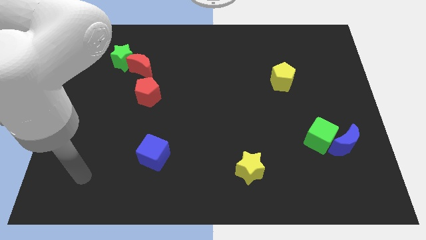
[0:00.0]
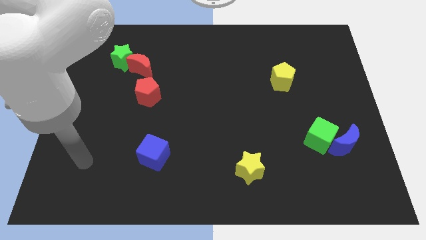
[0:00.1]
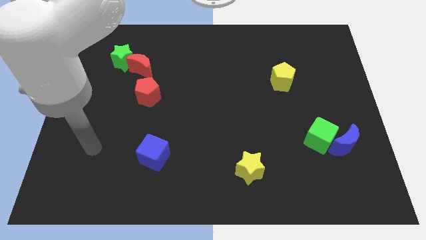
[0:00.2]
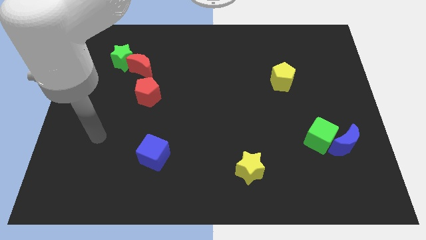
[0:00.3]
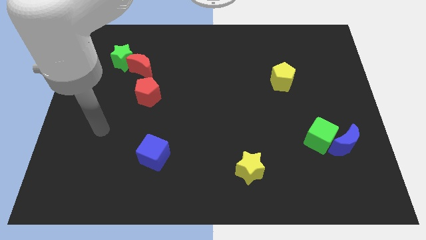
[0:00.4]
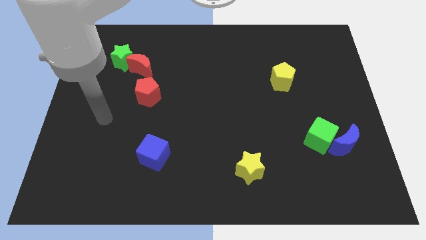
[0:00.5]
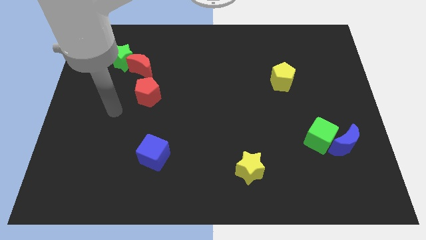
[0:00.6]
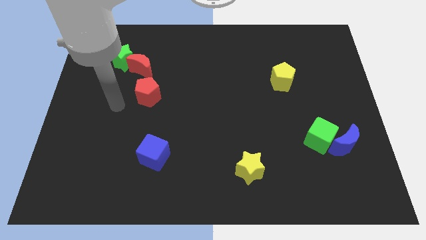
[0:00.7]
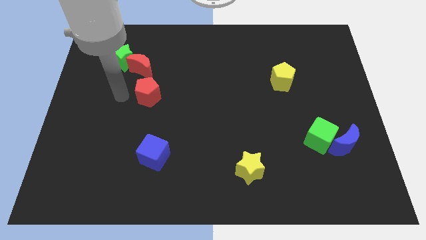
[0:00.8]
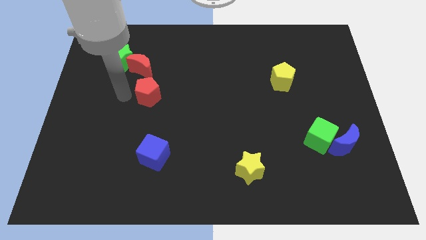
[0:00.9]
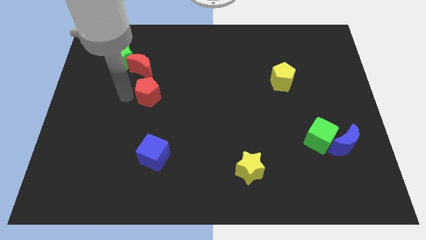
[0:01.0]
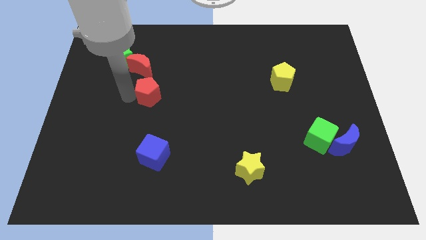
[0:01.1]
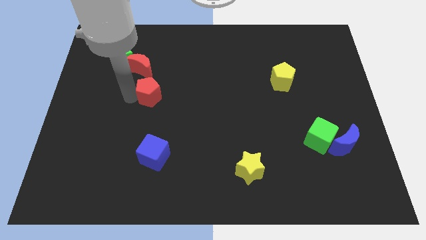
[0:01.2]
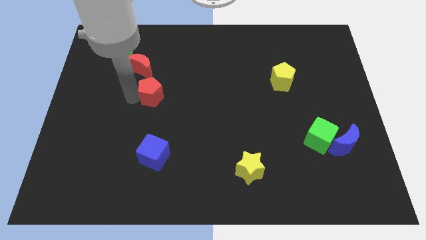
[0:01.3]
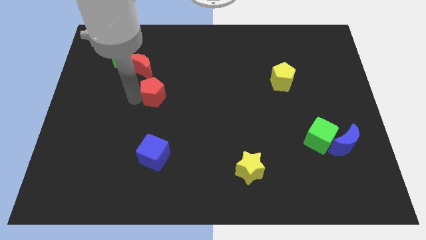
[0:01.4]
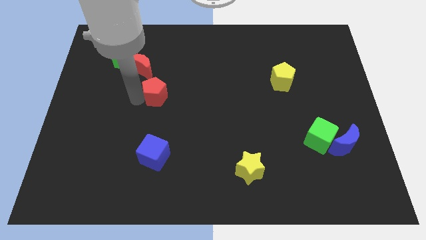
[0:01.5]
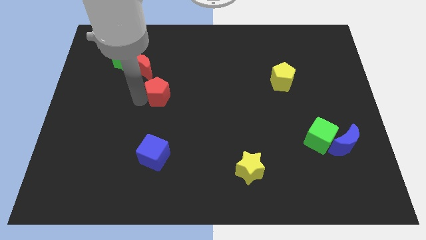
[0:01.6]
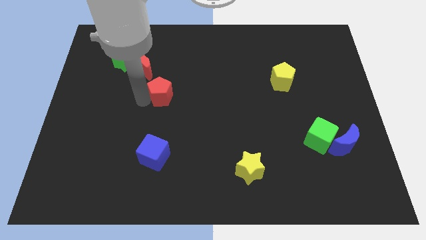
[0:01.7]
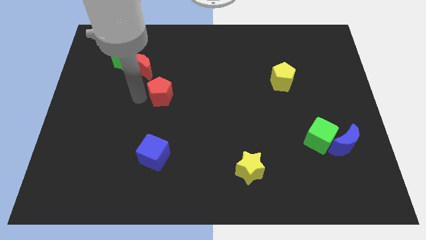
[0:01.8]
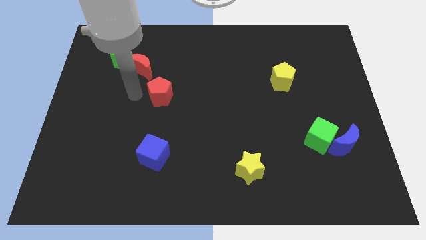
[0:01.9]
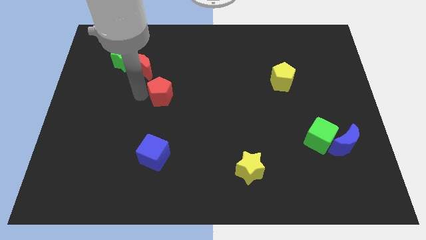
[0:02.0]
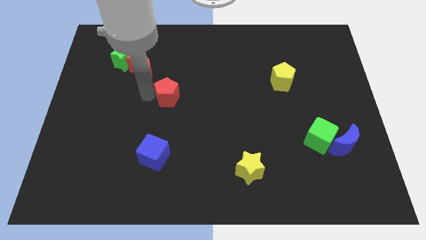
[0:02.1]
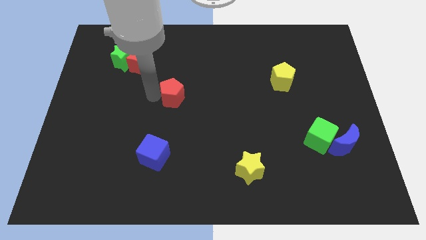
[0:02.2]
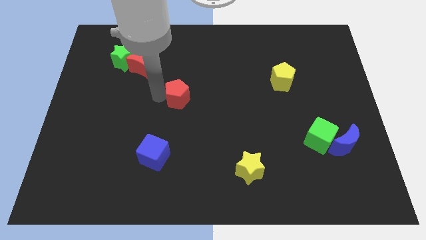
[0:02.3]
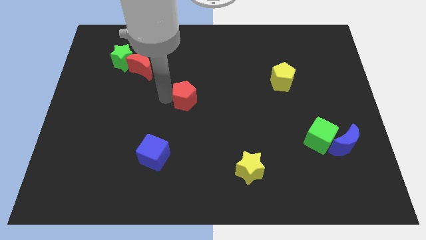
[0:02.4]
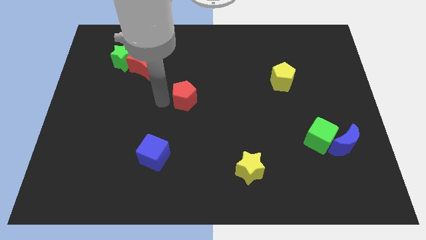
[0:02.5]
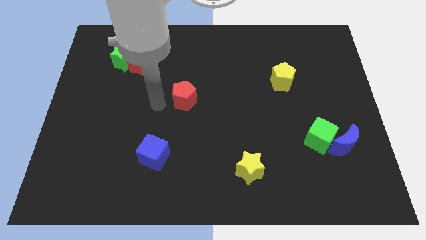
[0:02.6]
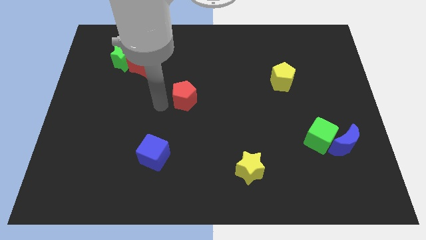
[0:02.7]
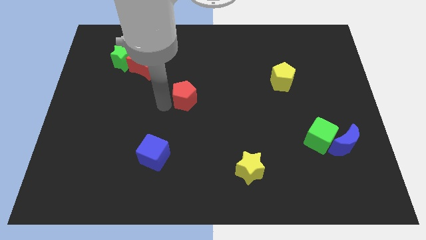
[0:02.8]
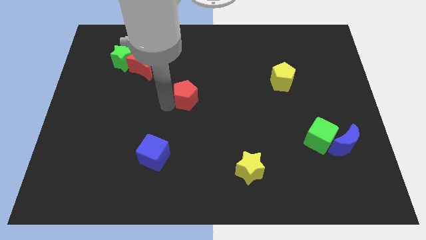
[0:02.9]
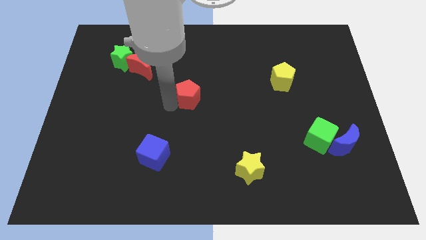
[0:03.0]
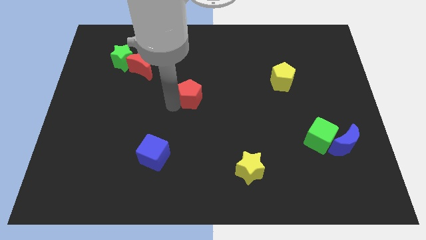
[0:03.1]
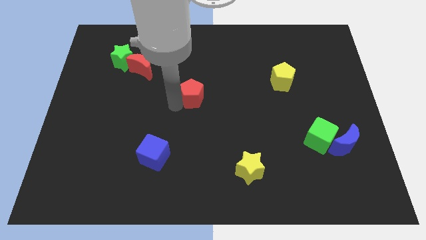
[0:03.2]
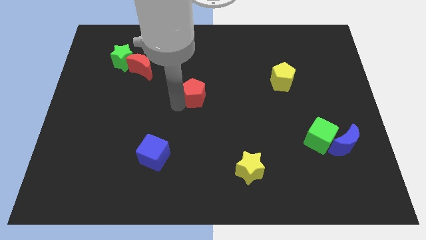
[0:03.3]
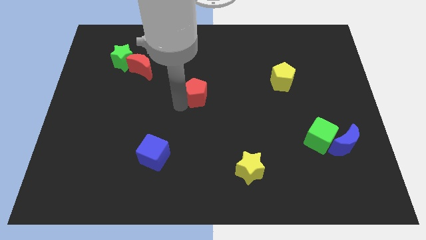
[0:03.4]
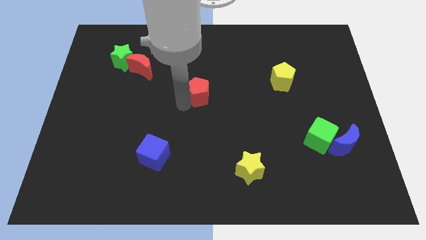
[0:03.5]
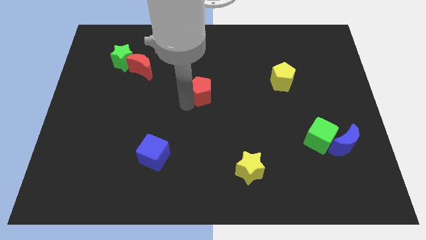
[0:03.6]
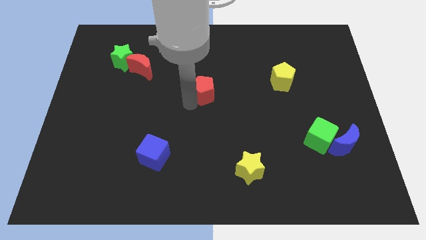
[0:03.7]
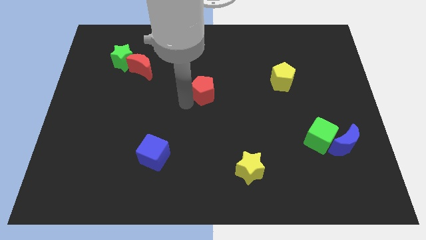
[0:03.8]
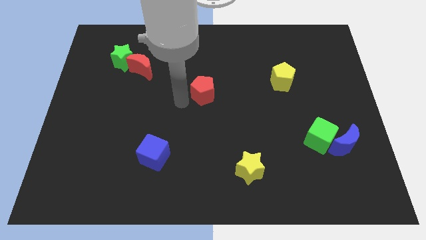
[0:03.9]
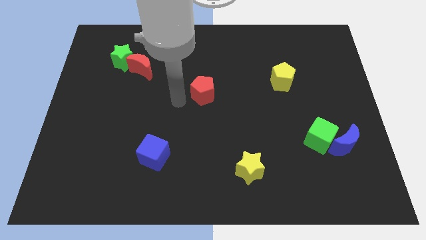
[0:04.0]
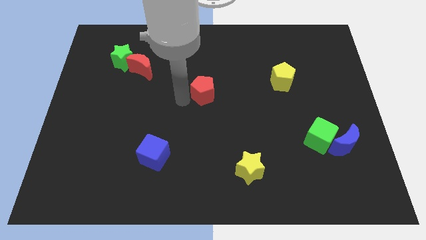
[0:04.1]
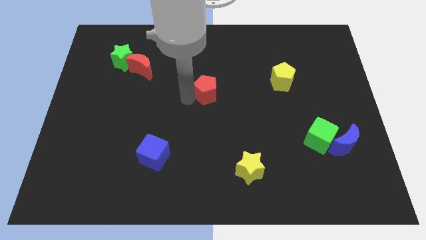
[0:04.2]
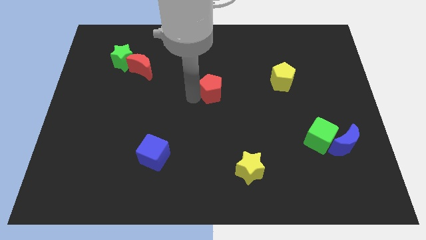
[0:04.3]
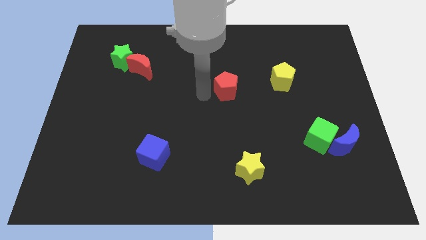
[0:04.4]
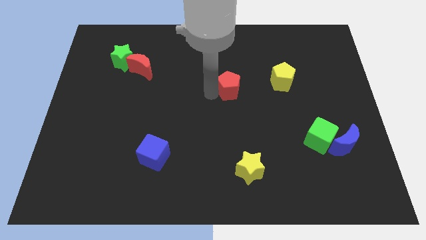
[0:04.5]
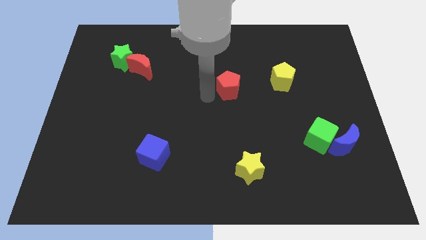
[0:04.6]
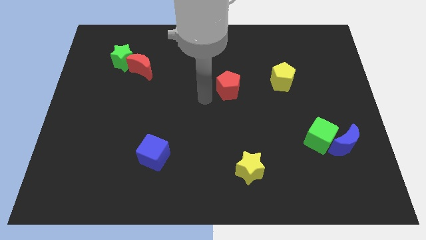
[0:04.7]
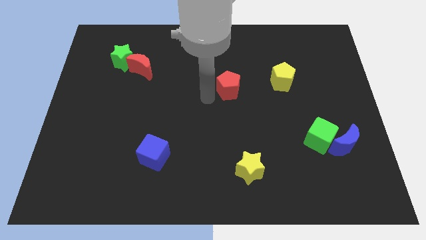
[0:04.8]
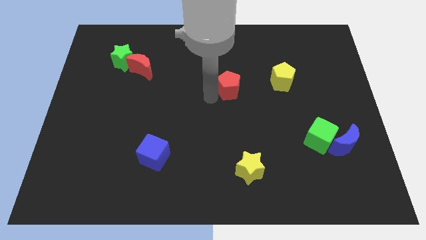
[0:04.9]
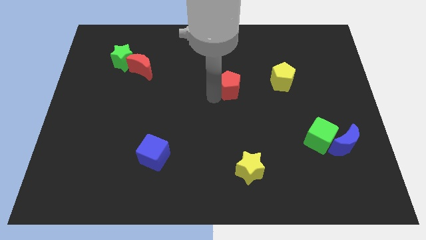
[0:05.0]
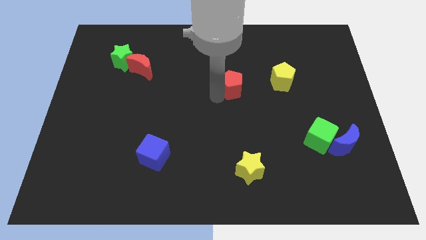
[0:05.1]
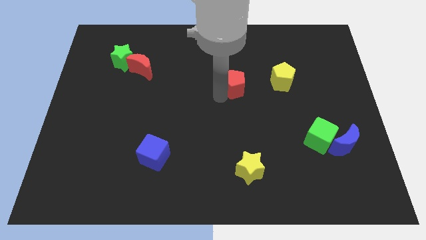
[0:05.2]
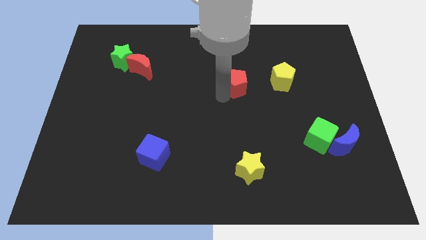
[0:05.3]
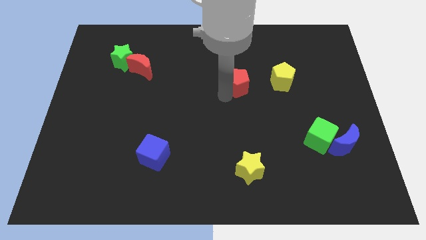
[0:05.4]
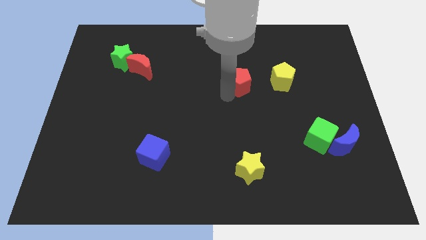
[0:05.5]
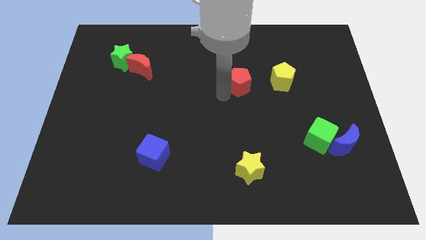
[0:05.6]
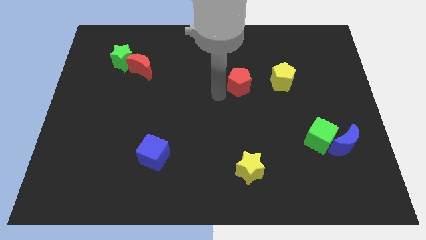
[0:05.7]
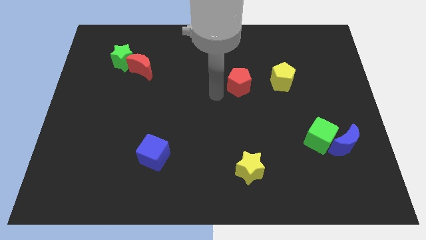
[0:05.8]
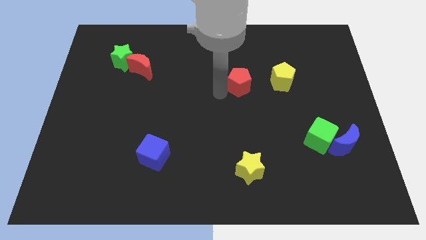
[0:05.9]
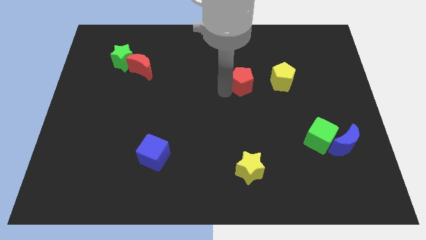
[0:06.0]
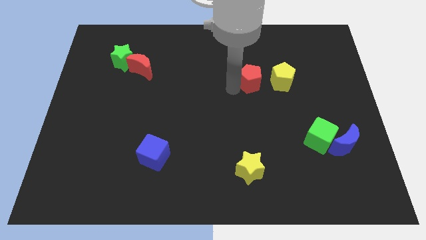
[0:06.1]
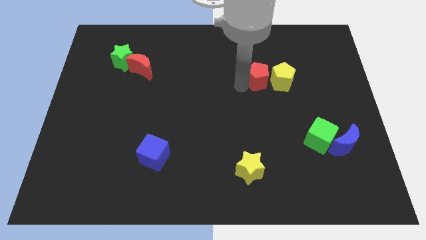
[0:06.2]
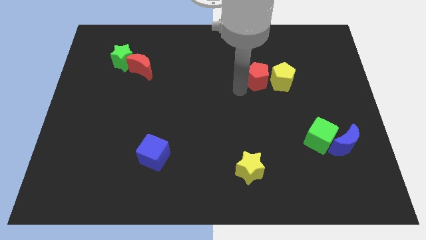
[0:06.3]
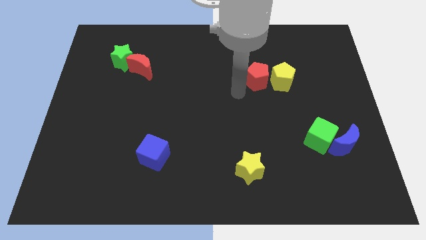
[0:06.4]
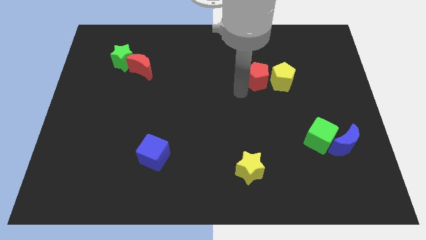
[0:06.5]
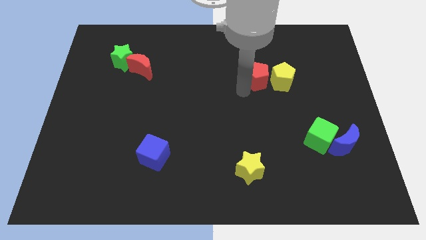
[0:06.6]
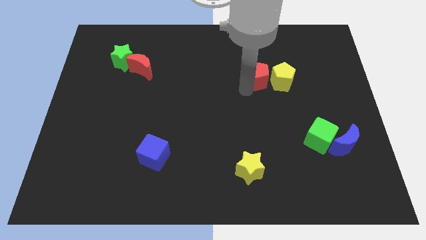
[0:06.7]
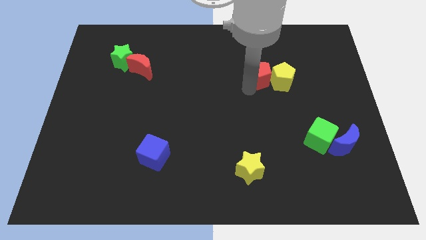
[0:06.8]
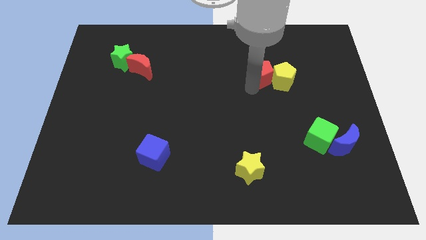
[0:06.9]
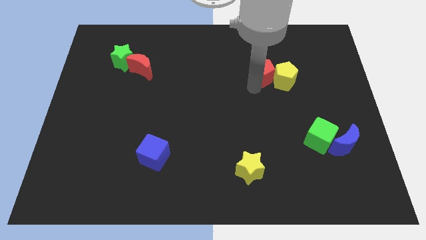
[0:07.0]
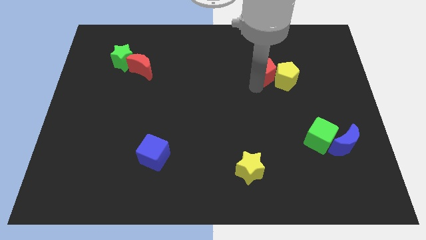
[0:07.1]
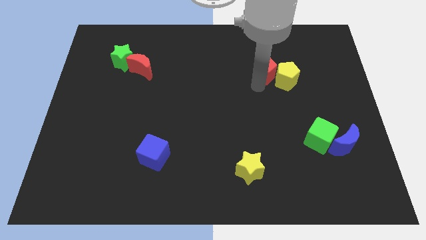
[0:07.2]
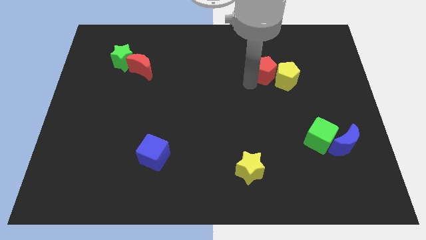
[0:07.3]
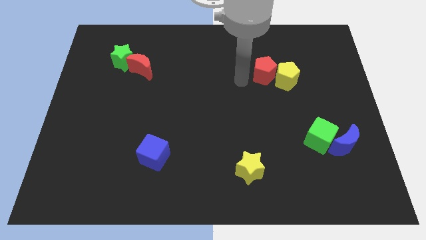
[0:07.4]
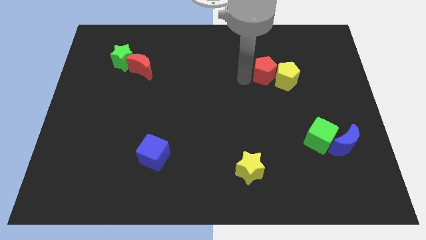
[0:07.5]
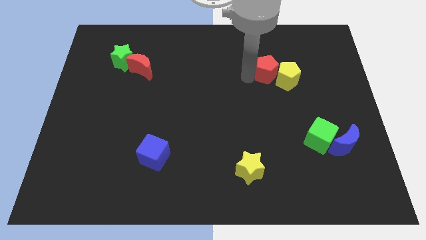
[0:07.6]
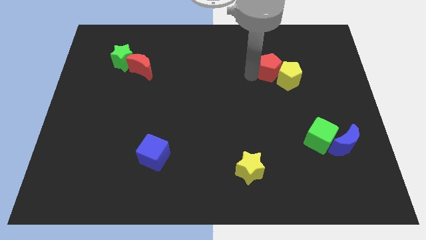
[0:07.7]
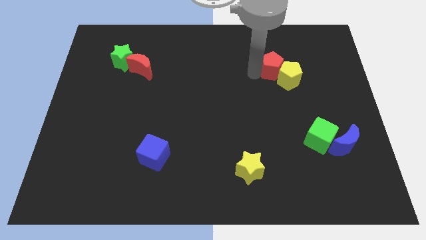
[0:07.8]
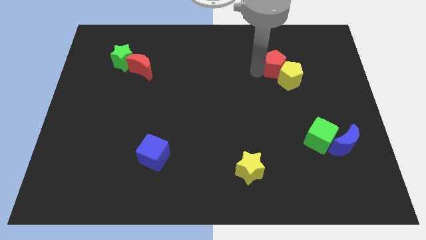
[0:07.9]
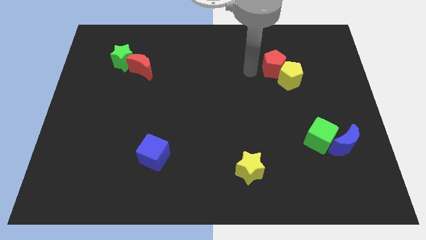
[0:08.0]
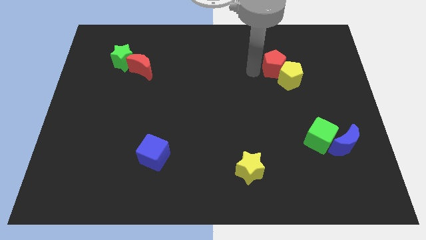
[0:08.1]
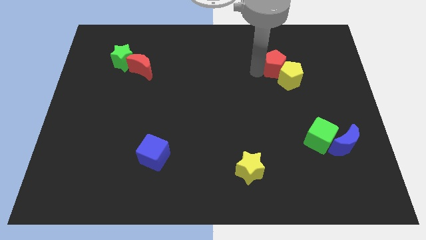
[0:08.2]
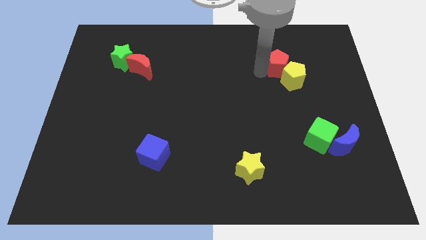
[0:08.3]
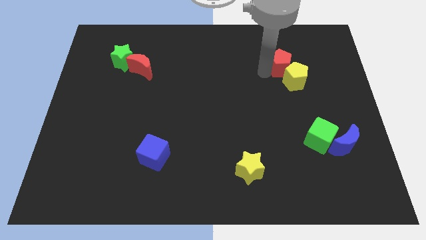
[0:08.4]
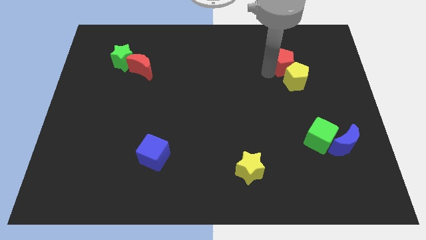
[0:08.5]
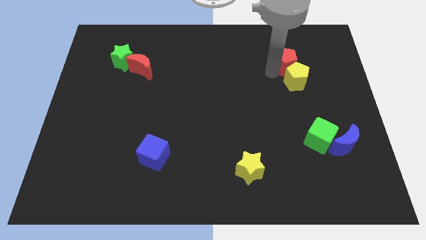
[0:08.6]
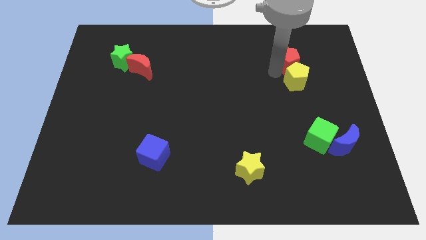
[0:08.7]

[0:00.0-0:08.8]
move the red pentagon to the top right side of the yellow pentagon
